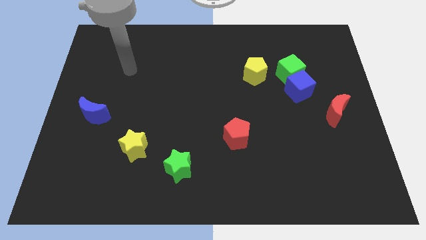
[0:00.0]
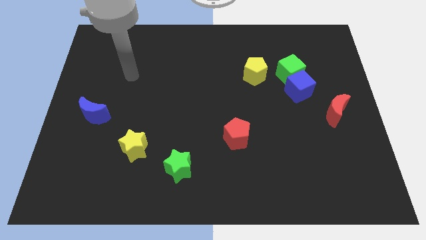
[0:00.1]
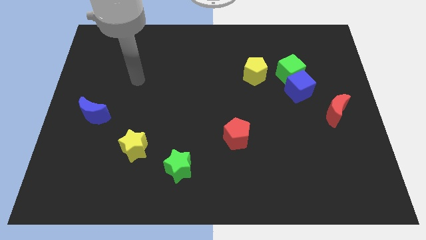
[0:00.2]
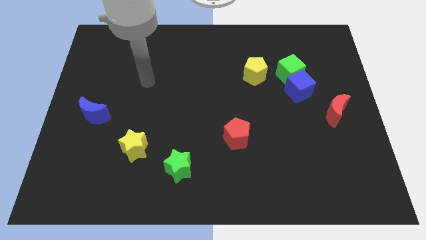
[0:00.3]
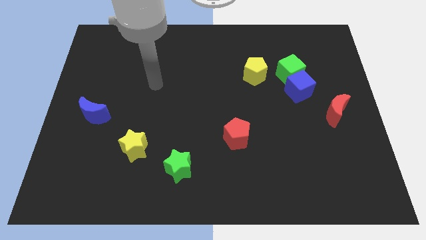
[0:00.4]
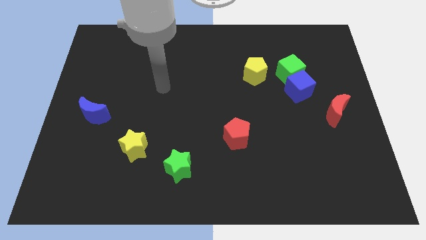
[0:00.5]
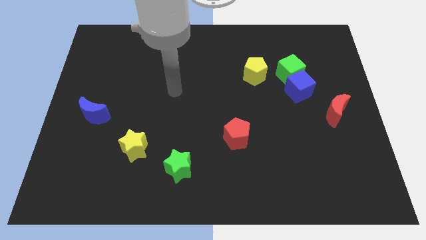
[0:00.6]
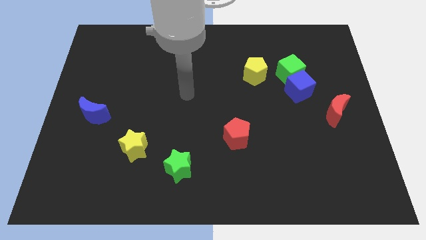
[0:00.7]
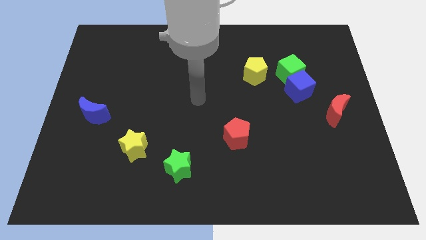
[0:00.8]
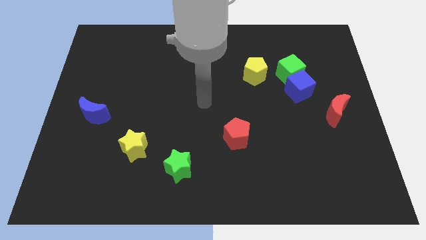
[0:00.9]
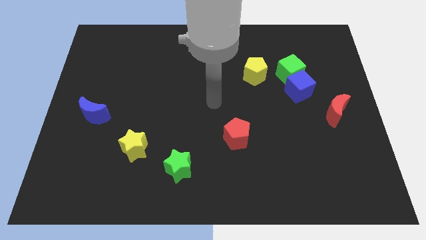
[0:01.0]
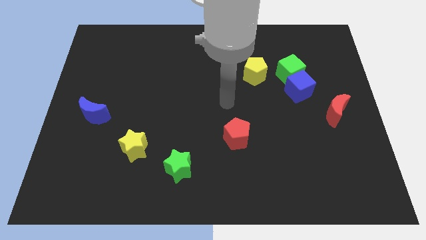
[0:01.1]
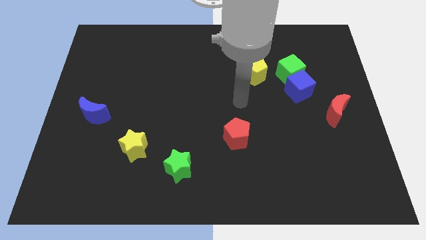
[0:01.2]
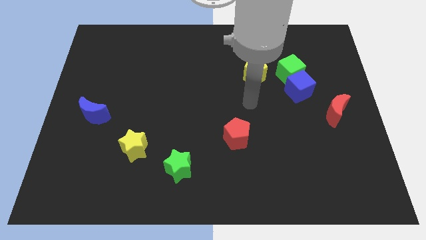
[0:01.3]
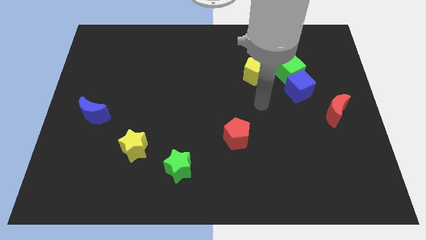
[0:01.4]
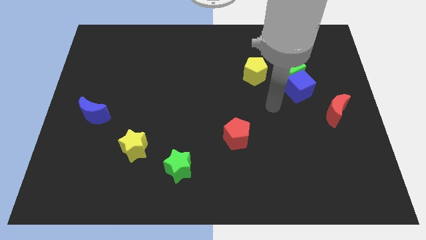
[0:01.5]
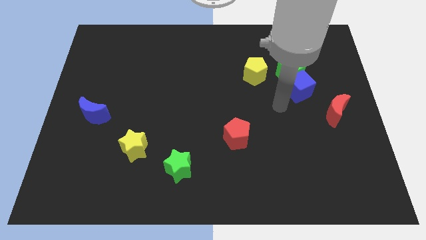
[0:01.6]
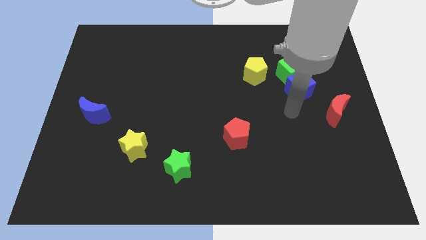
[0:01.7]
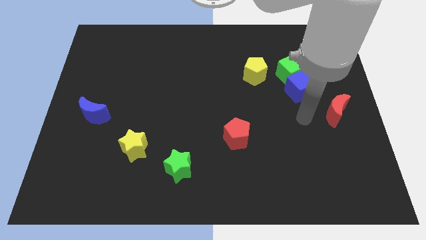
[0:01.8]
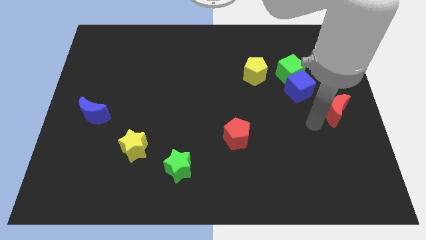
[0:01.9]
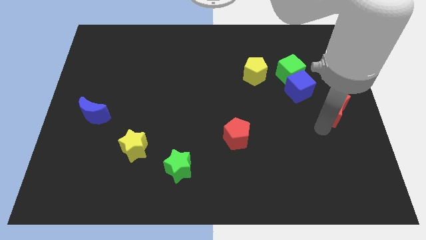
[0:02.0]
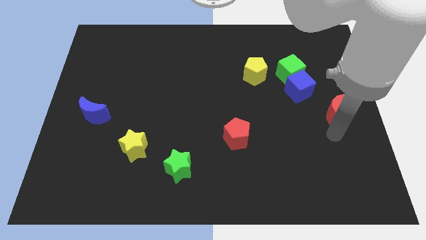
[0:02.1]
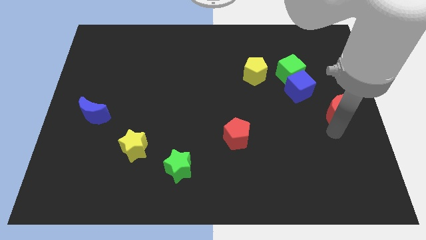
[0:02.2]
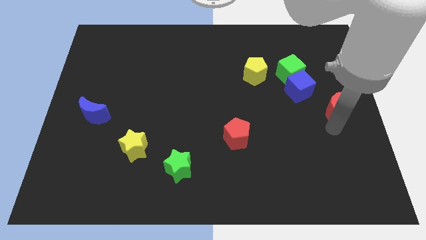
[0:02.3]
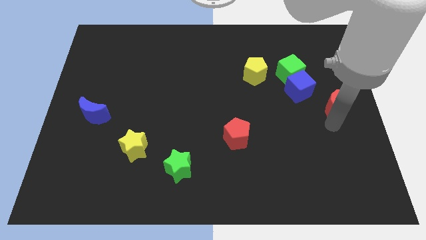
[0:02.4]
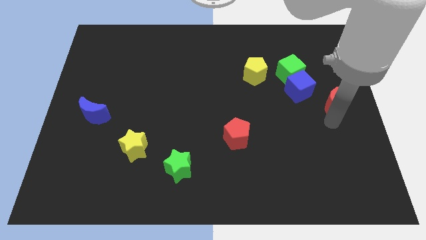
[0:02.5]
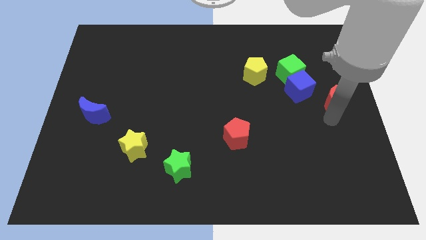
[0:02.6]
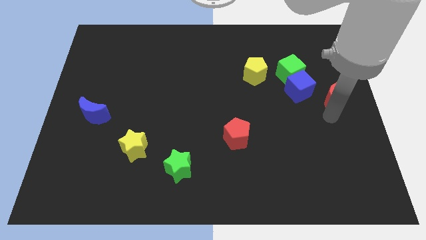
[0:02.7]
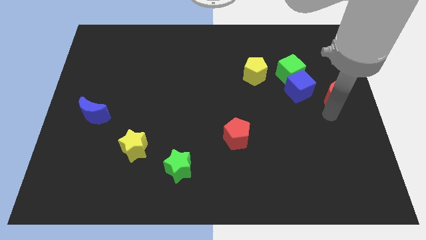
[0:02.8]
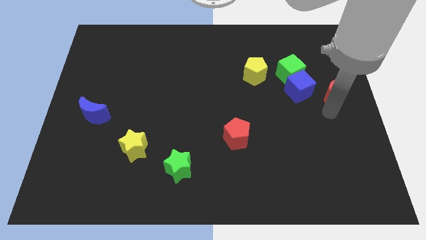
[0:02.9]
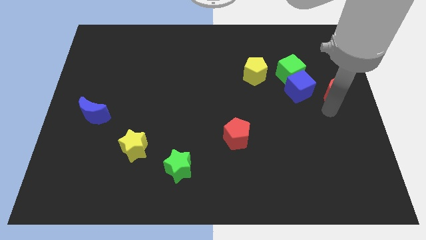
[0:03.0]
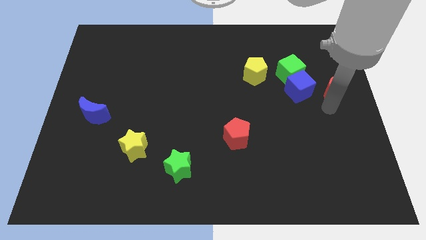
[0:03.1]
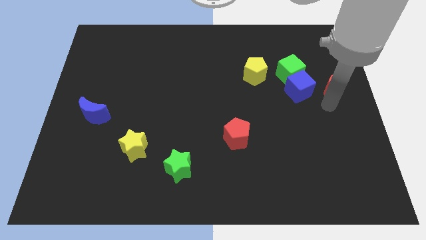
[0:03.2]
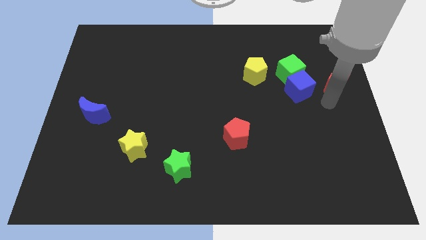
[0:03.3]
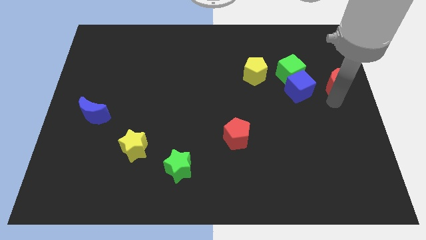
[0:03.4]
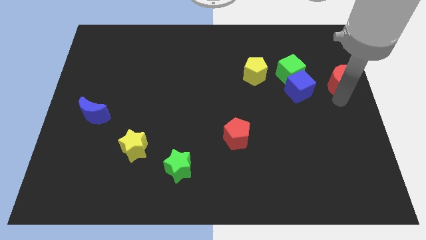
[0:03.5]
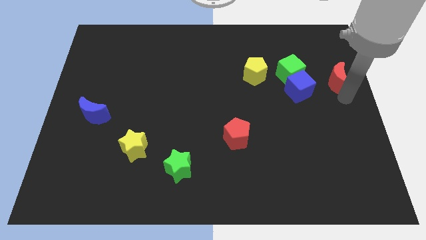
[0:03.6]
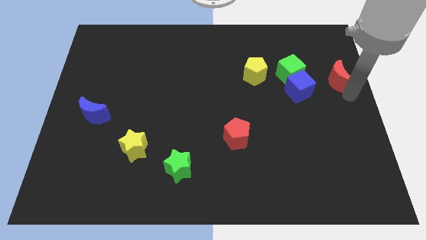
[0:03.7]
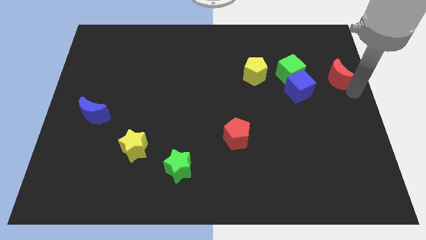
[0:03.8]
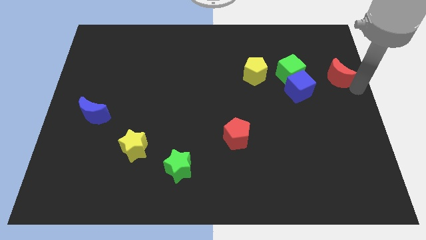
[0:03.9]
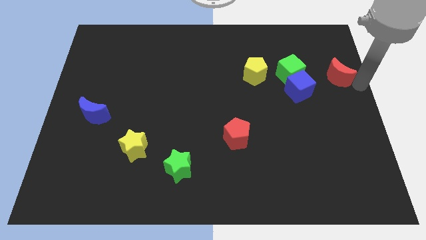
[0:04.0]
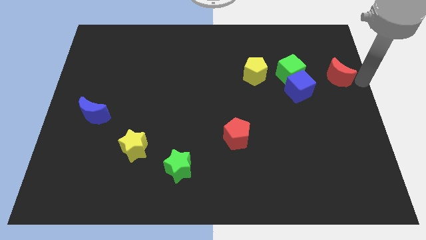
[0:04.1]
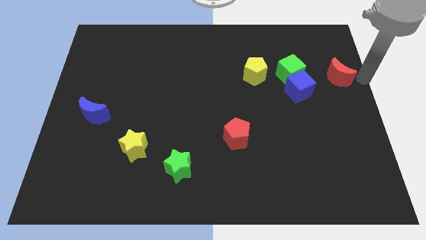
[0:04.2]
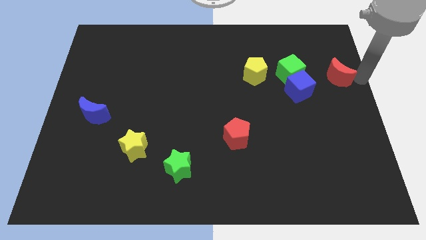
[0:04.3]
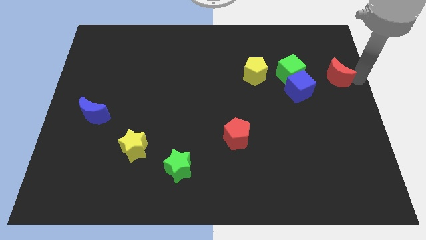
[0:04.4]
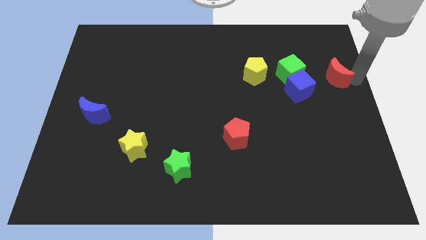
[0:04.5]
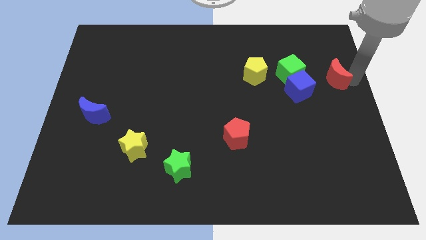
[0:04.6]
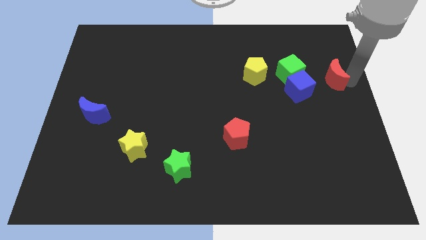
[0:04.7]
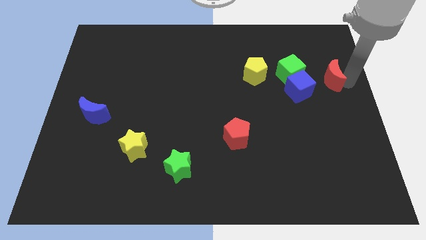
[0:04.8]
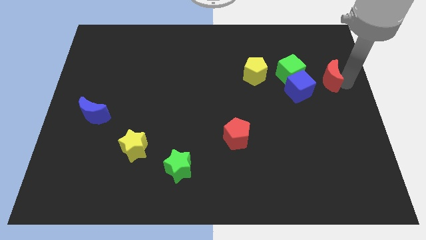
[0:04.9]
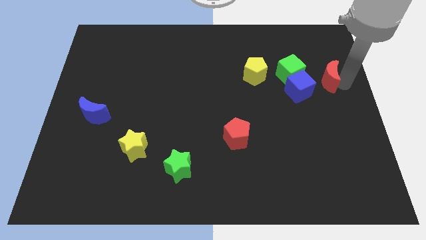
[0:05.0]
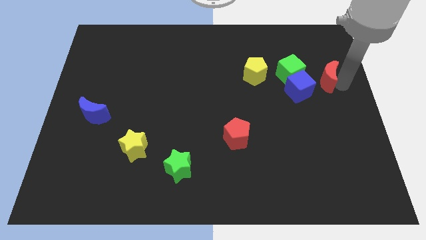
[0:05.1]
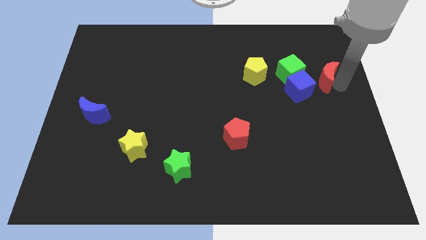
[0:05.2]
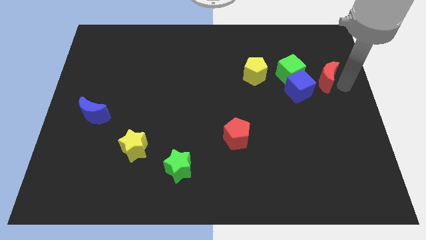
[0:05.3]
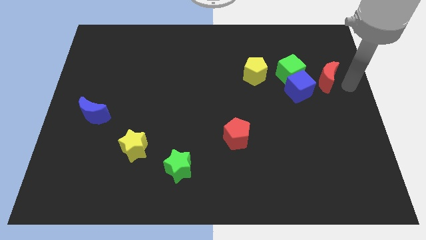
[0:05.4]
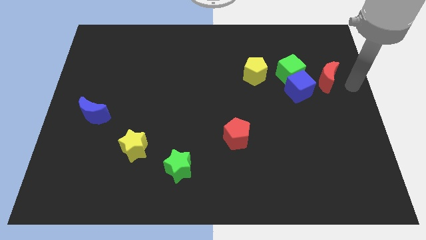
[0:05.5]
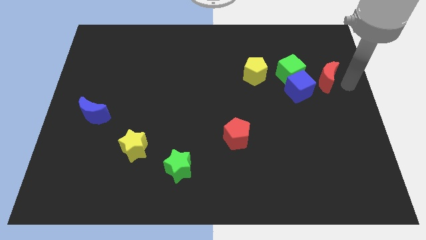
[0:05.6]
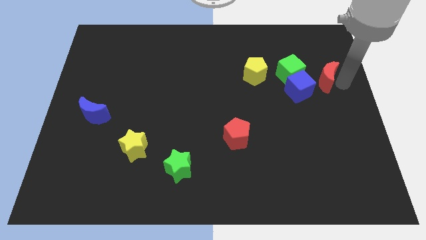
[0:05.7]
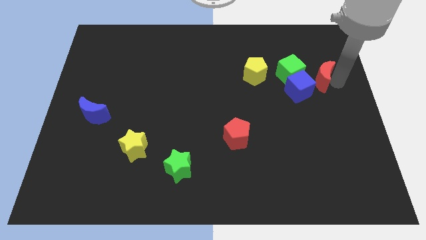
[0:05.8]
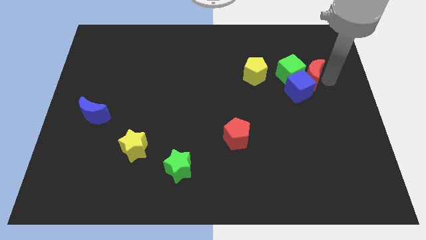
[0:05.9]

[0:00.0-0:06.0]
move the red moon close to the green cube

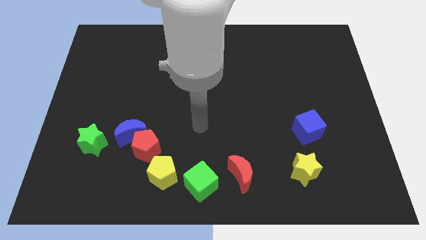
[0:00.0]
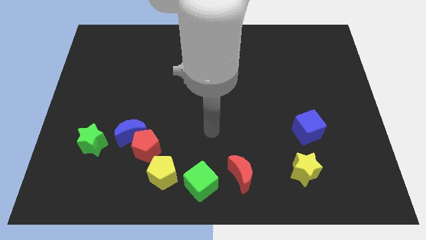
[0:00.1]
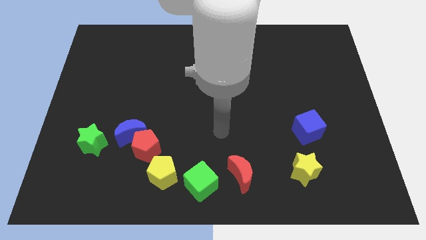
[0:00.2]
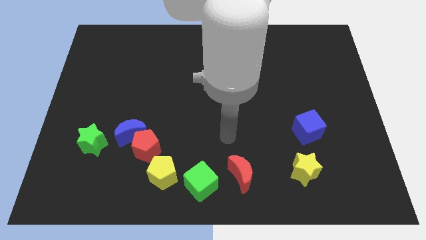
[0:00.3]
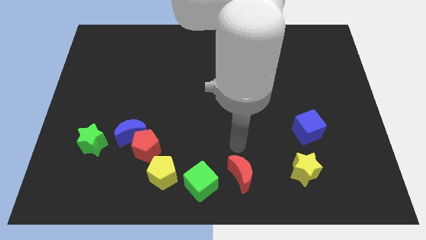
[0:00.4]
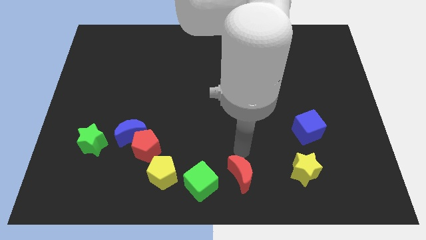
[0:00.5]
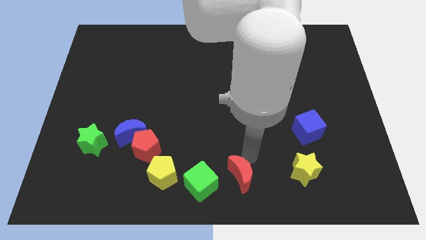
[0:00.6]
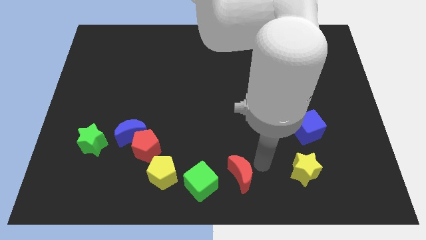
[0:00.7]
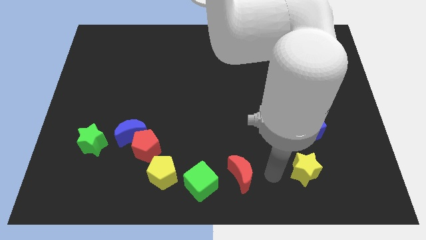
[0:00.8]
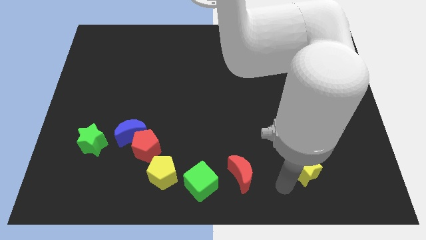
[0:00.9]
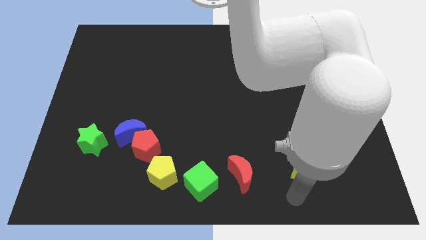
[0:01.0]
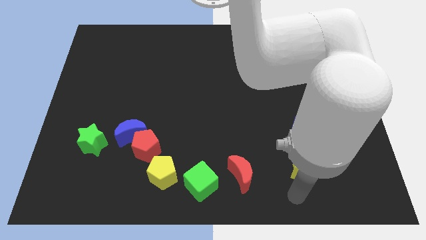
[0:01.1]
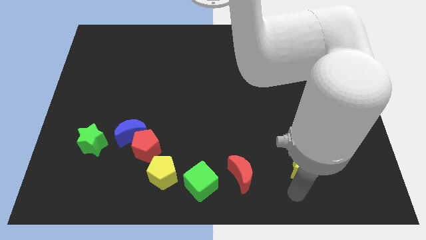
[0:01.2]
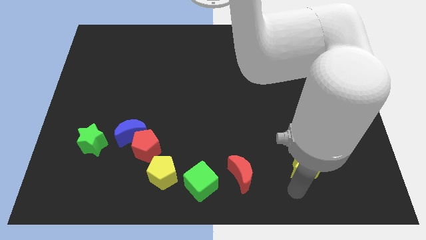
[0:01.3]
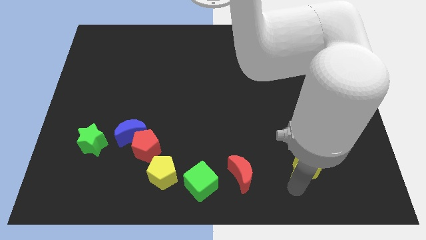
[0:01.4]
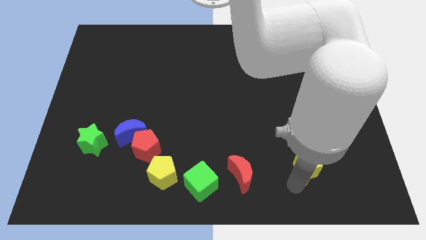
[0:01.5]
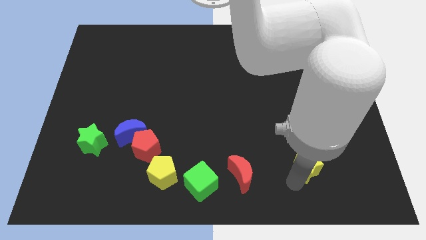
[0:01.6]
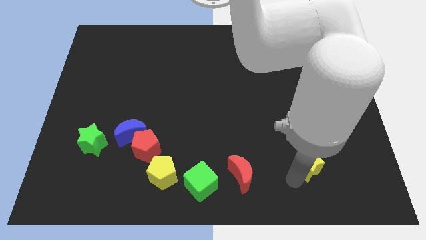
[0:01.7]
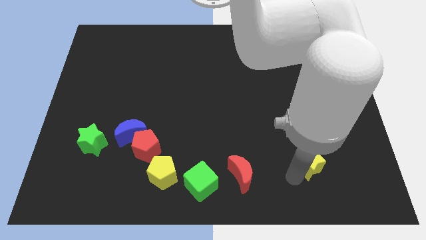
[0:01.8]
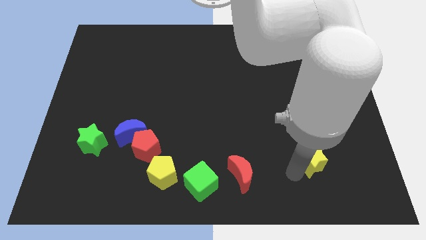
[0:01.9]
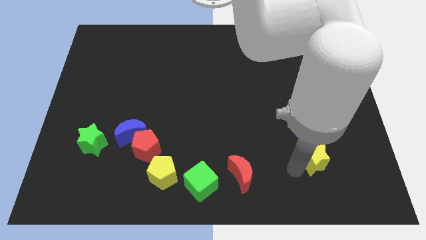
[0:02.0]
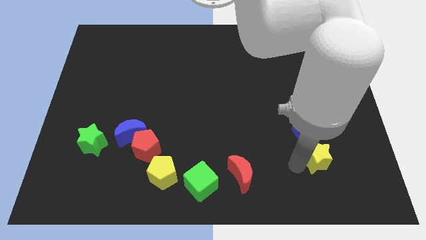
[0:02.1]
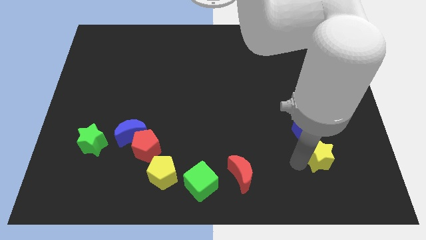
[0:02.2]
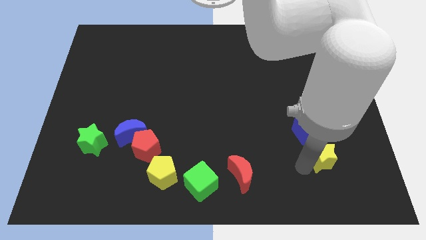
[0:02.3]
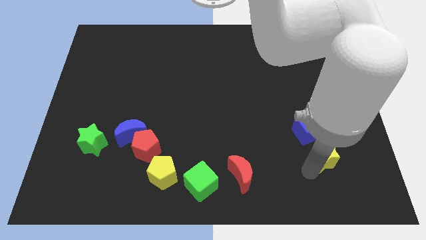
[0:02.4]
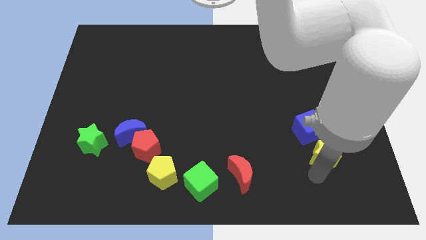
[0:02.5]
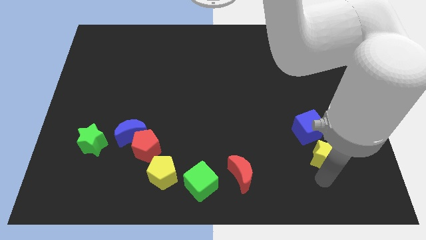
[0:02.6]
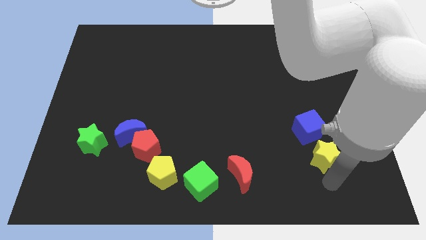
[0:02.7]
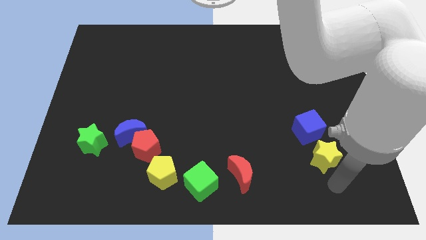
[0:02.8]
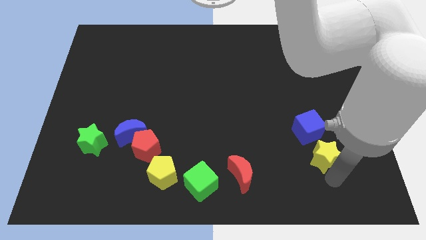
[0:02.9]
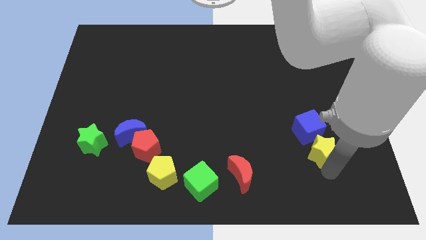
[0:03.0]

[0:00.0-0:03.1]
slide the yellow star to the blue cube
